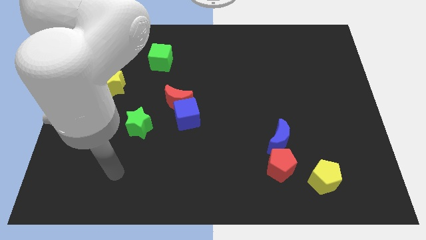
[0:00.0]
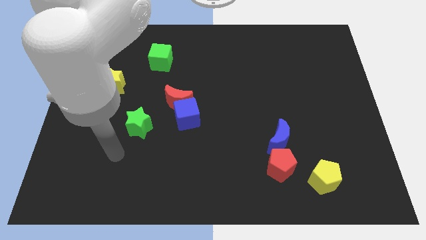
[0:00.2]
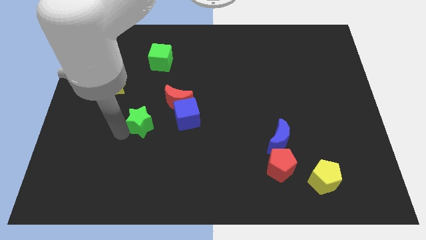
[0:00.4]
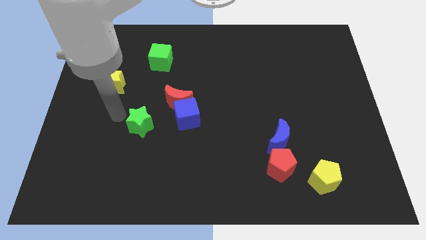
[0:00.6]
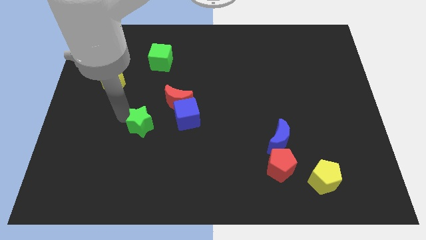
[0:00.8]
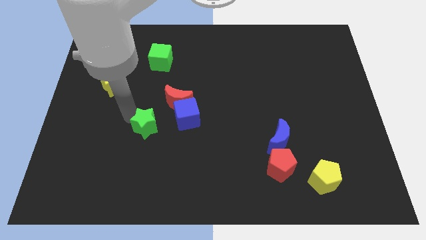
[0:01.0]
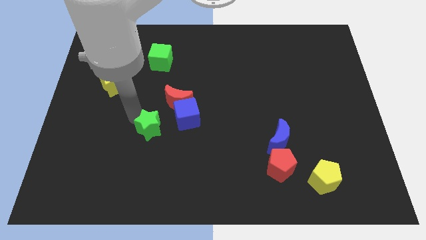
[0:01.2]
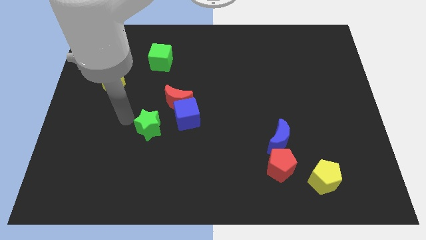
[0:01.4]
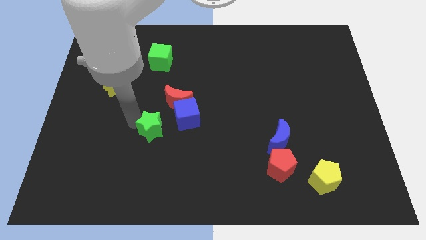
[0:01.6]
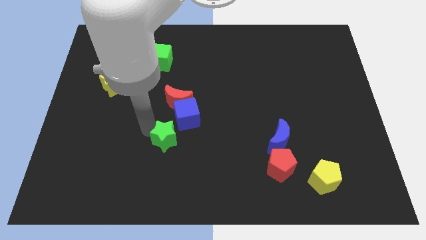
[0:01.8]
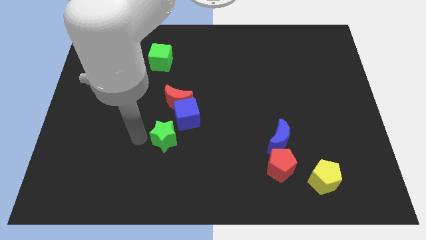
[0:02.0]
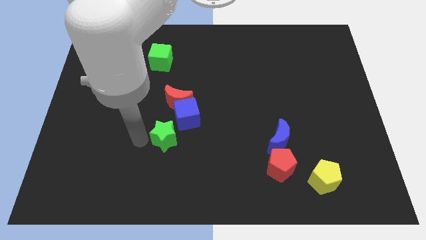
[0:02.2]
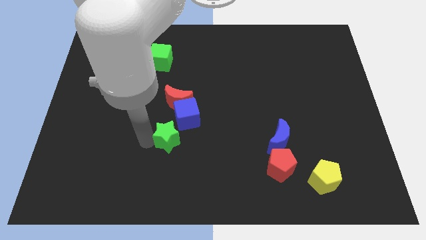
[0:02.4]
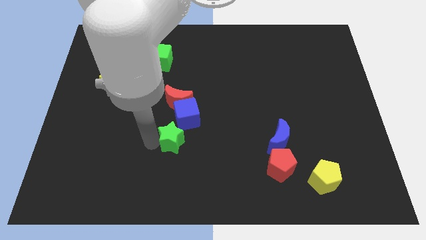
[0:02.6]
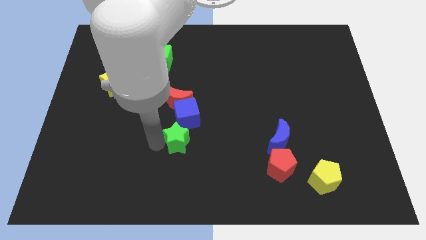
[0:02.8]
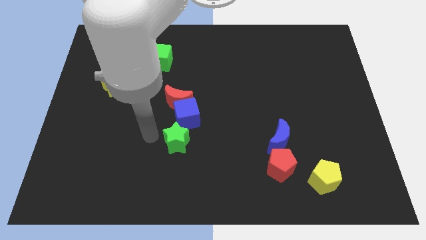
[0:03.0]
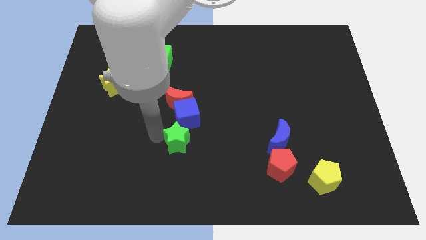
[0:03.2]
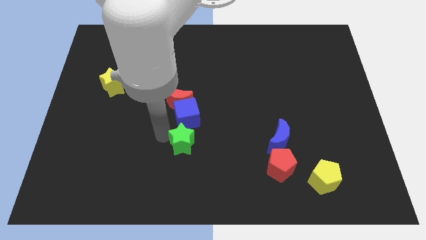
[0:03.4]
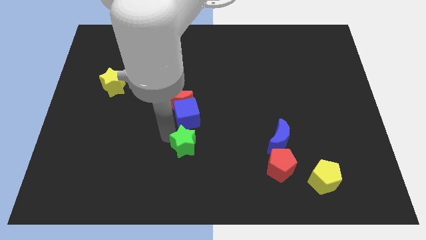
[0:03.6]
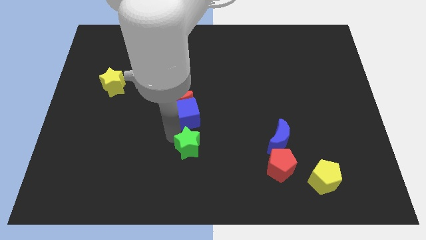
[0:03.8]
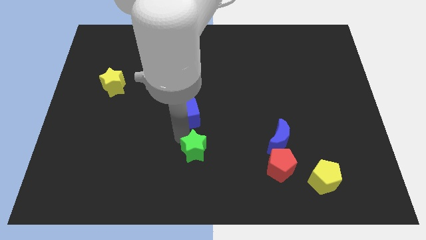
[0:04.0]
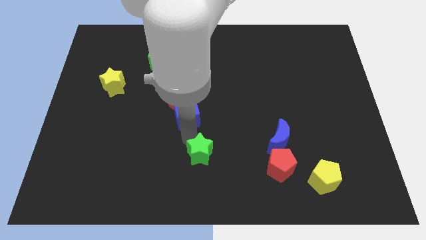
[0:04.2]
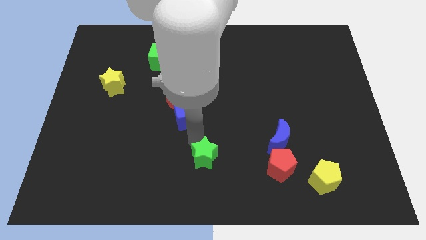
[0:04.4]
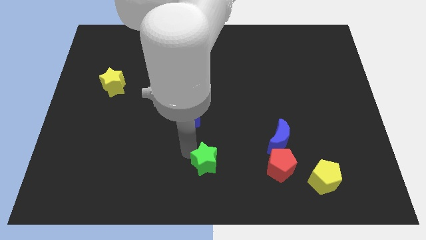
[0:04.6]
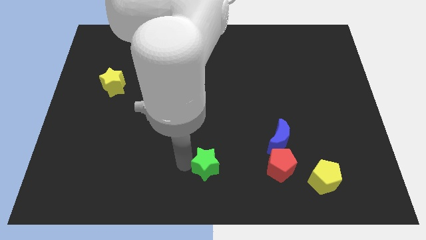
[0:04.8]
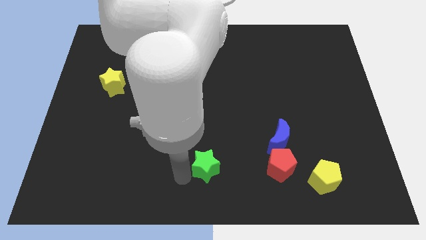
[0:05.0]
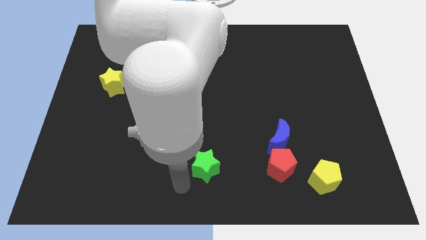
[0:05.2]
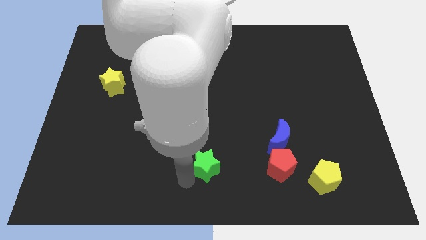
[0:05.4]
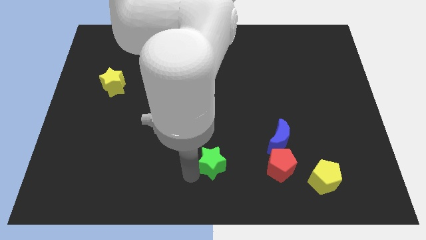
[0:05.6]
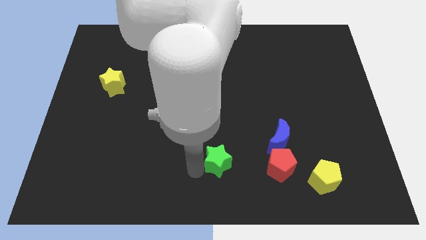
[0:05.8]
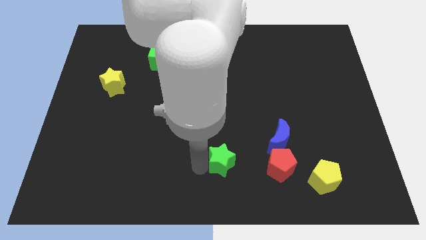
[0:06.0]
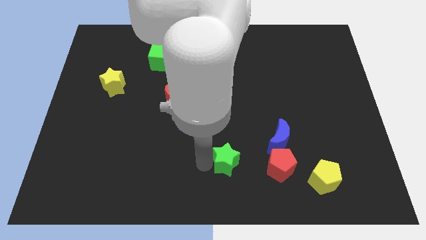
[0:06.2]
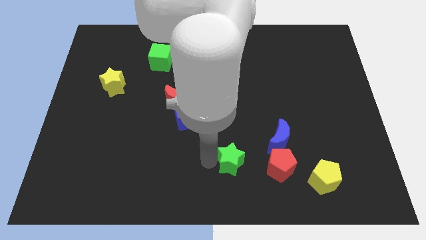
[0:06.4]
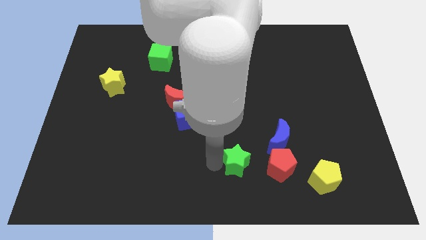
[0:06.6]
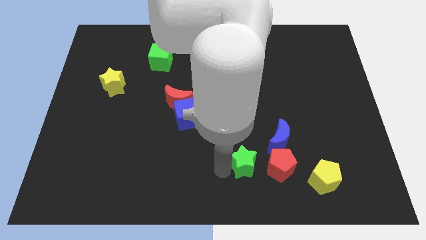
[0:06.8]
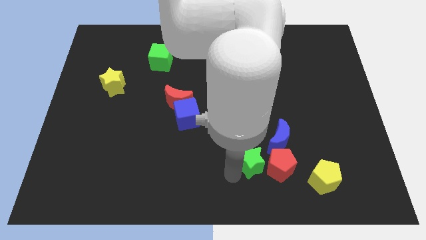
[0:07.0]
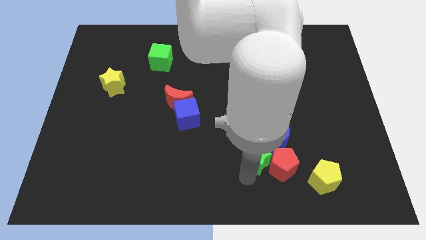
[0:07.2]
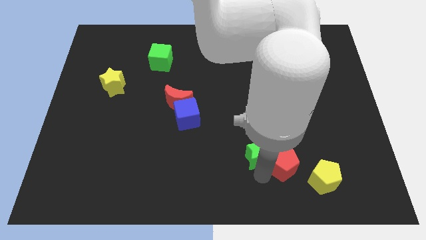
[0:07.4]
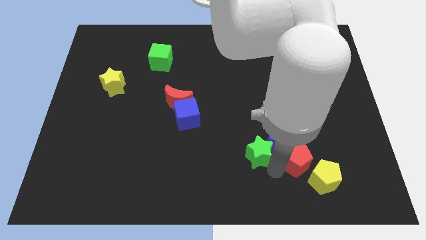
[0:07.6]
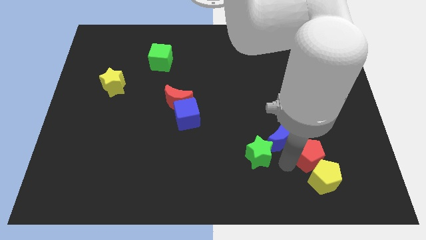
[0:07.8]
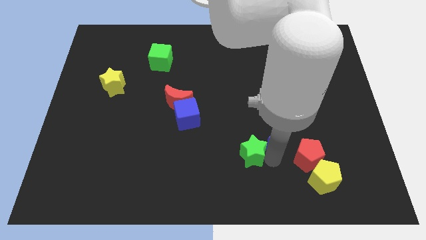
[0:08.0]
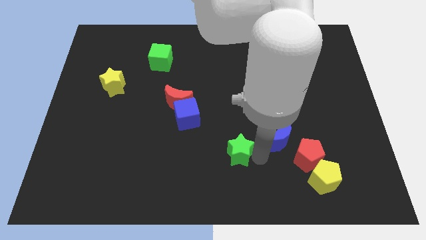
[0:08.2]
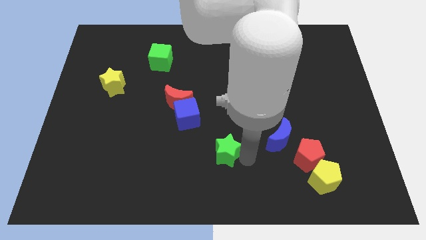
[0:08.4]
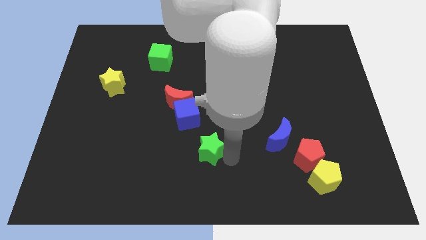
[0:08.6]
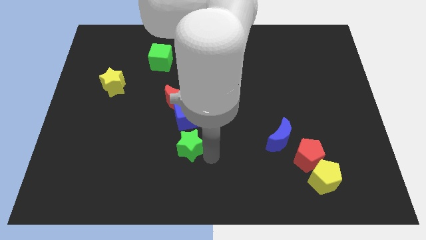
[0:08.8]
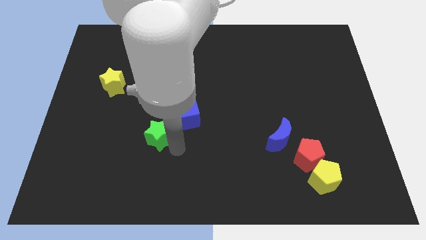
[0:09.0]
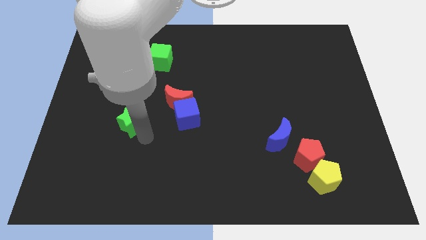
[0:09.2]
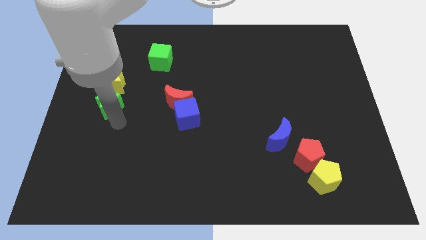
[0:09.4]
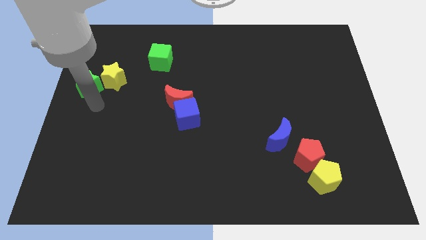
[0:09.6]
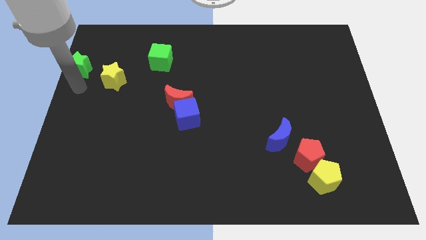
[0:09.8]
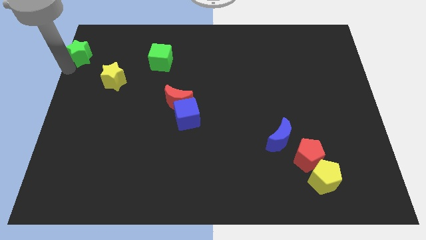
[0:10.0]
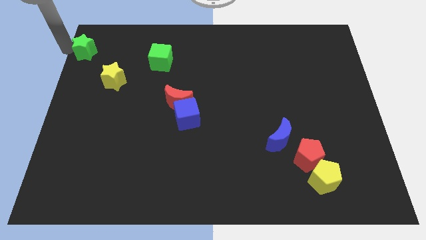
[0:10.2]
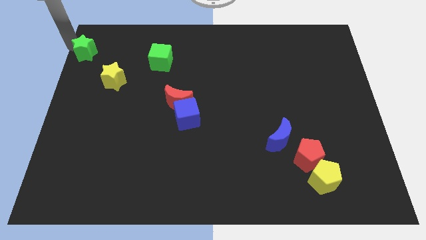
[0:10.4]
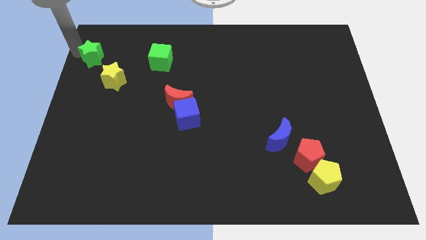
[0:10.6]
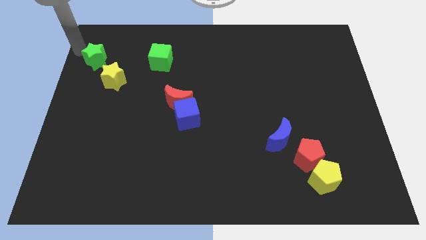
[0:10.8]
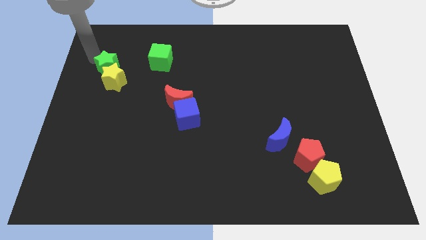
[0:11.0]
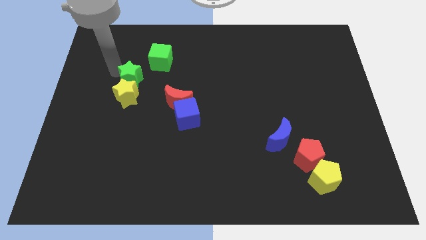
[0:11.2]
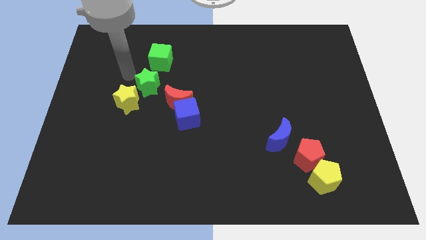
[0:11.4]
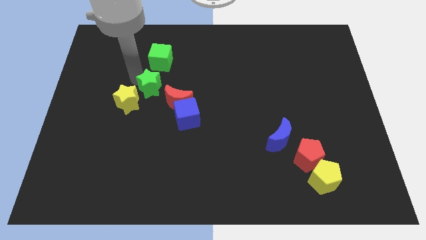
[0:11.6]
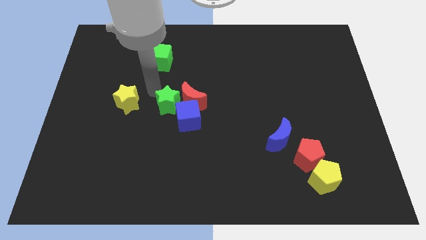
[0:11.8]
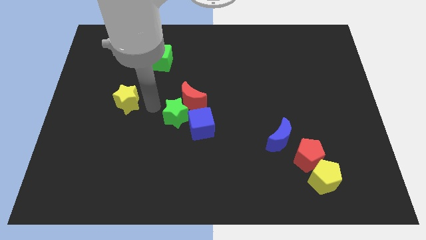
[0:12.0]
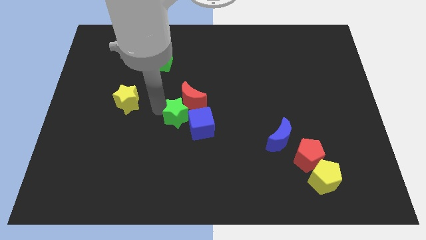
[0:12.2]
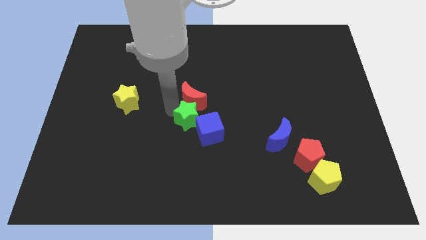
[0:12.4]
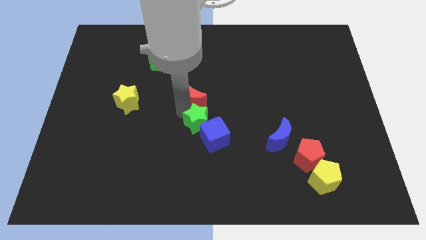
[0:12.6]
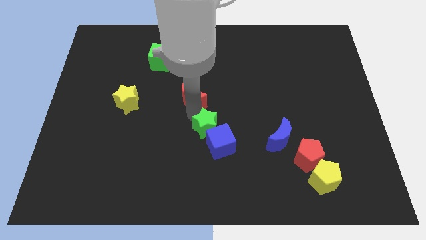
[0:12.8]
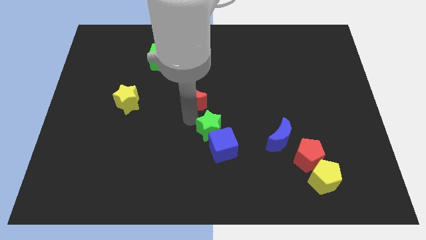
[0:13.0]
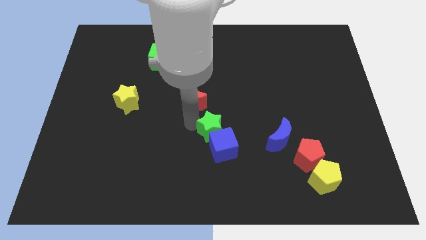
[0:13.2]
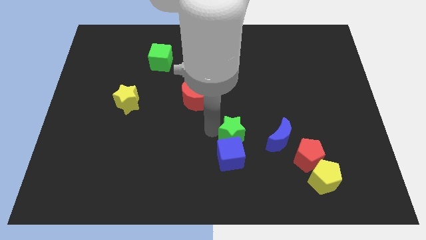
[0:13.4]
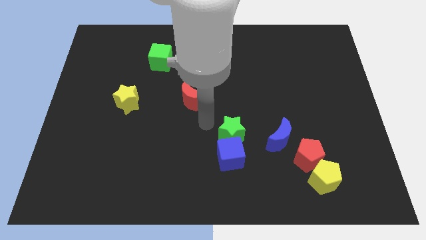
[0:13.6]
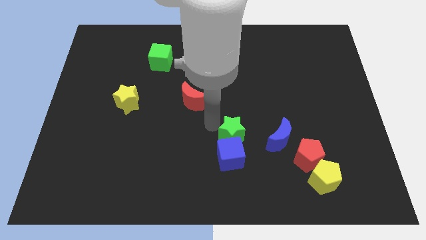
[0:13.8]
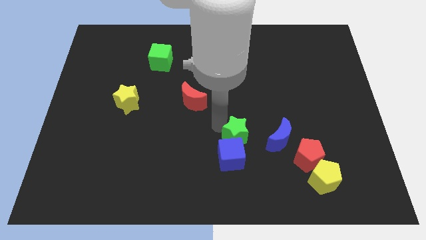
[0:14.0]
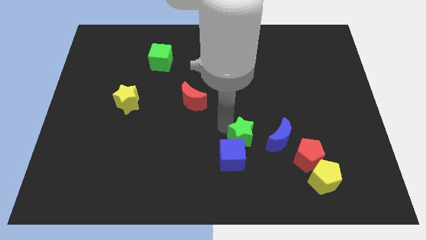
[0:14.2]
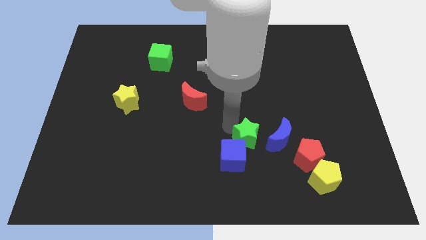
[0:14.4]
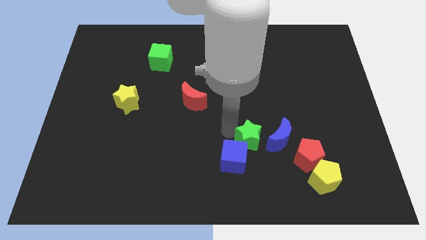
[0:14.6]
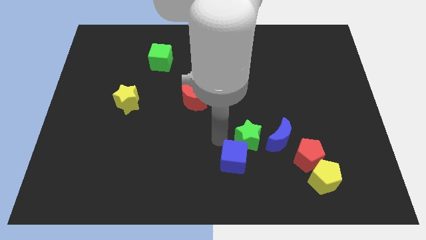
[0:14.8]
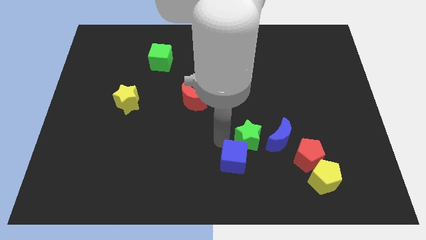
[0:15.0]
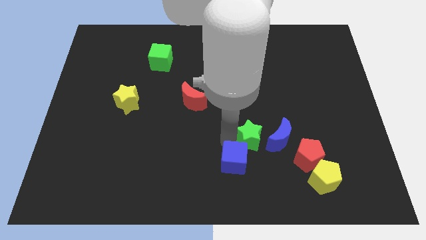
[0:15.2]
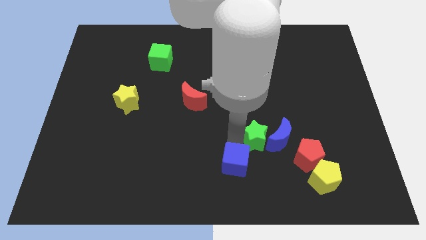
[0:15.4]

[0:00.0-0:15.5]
push the green star towards the blue moon

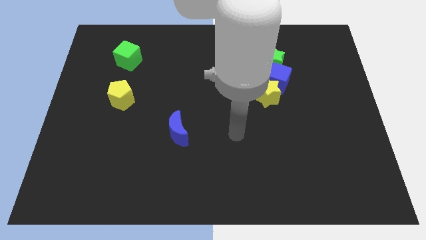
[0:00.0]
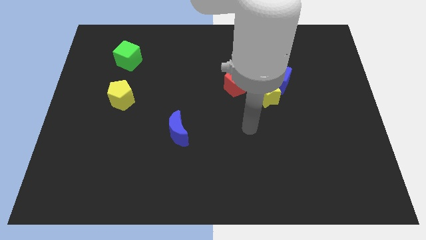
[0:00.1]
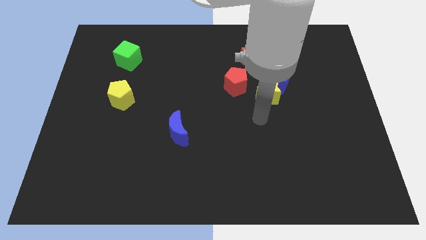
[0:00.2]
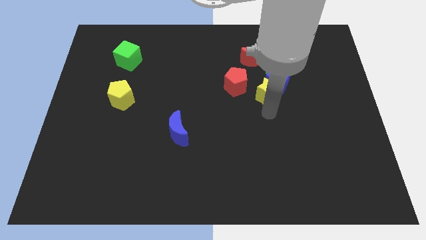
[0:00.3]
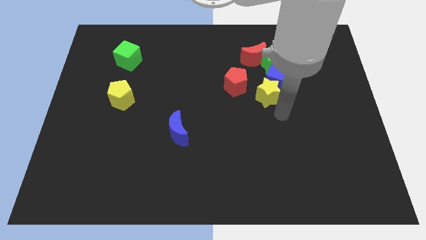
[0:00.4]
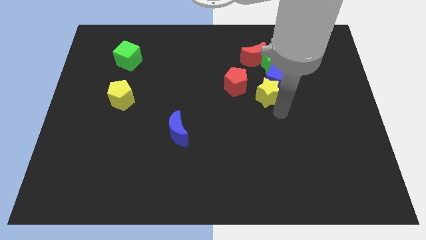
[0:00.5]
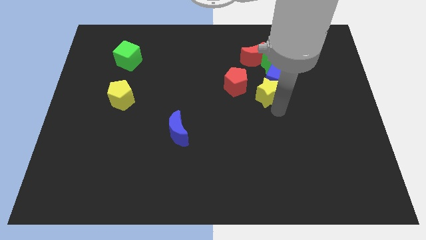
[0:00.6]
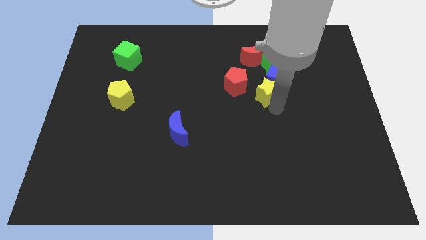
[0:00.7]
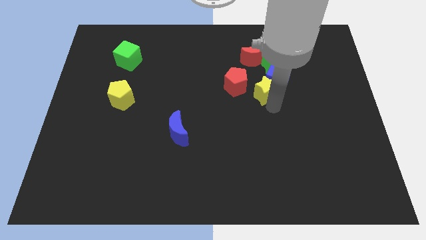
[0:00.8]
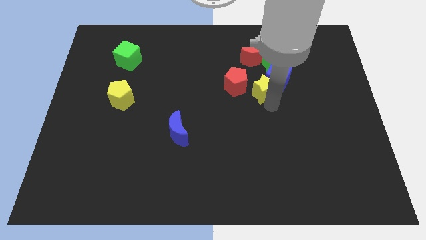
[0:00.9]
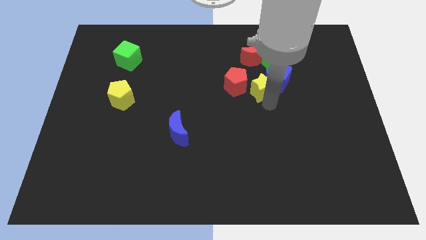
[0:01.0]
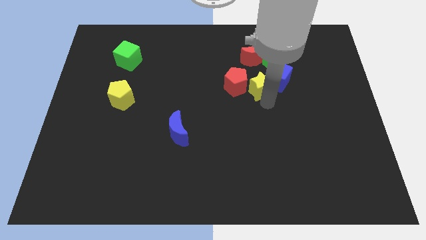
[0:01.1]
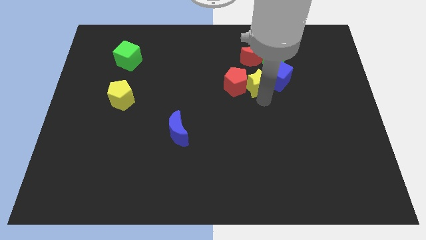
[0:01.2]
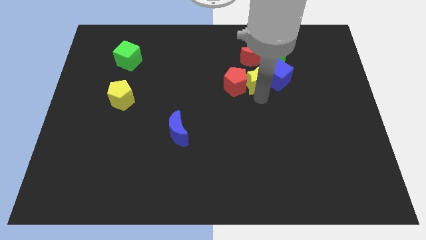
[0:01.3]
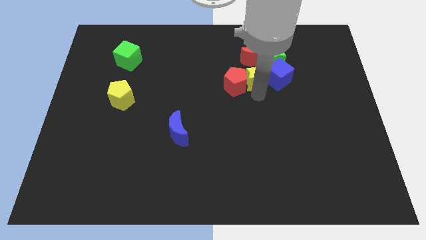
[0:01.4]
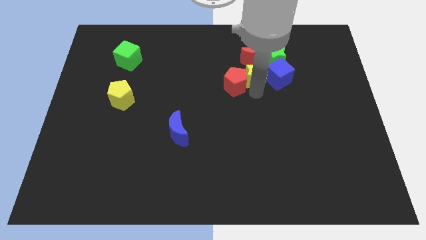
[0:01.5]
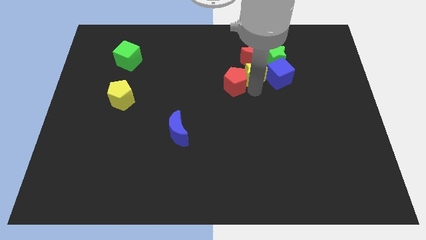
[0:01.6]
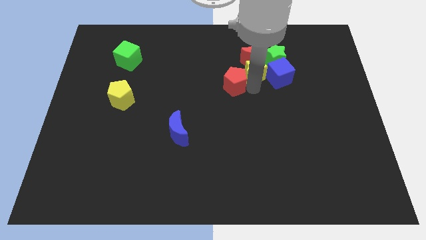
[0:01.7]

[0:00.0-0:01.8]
push the yellow star towards the red moon
